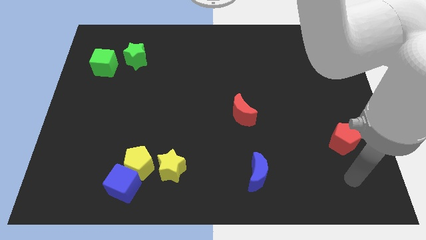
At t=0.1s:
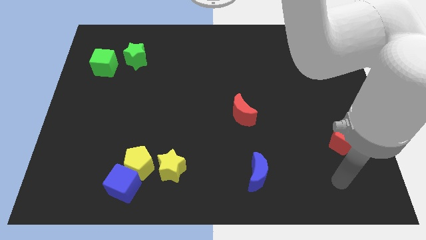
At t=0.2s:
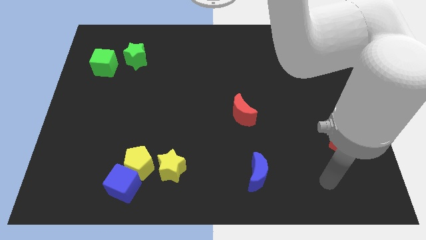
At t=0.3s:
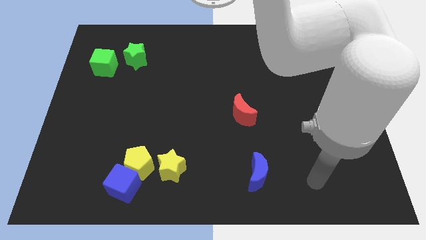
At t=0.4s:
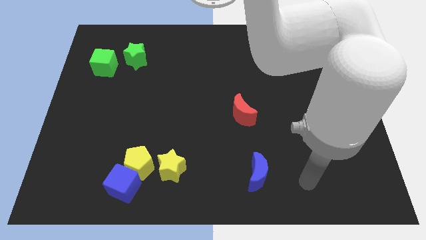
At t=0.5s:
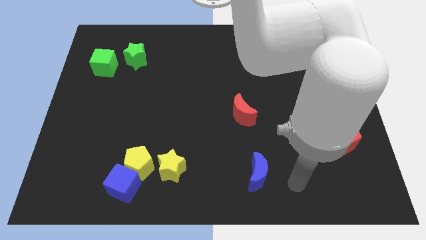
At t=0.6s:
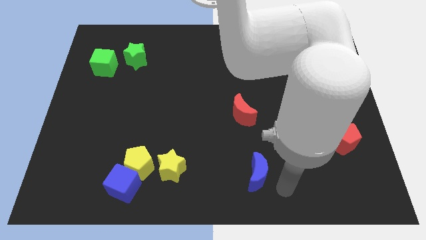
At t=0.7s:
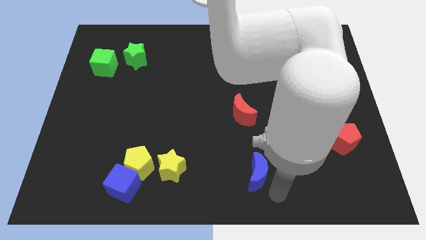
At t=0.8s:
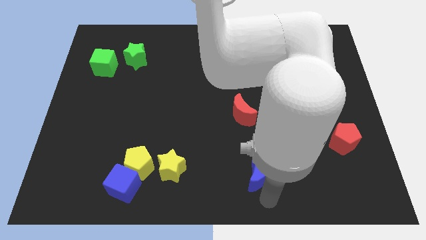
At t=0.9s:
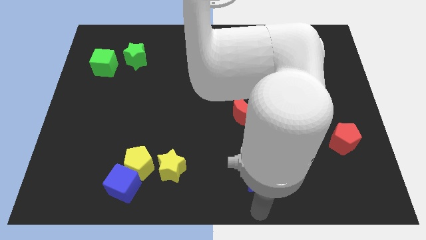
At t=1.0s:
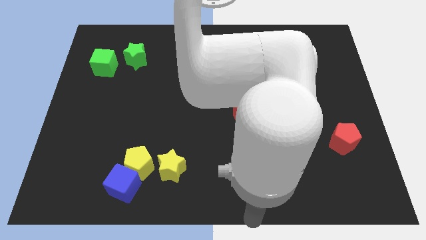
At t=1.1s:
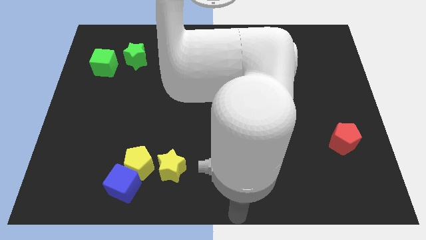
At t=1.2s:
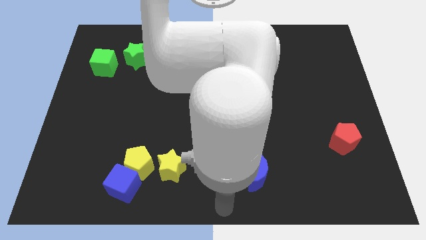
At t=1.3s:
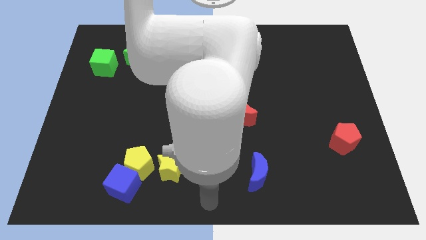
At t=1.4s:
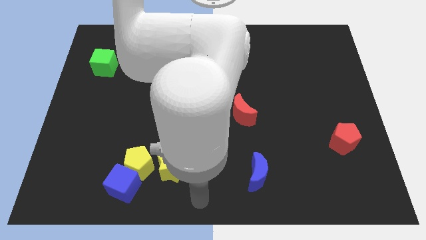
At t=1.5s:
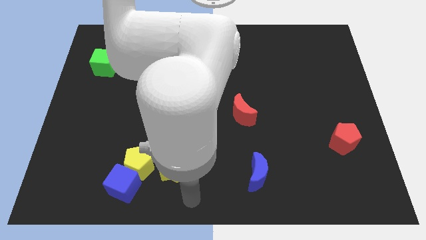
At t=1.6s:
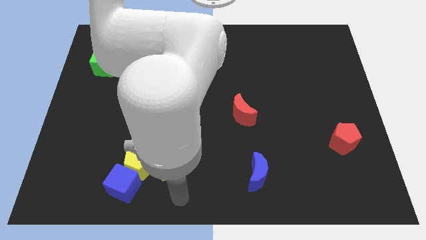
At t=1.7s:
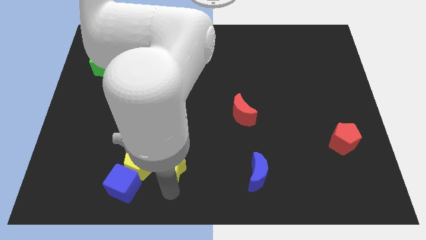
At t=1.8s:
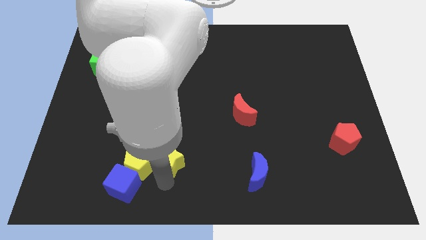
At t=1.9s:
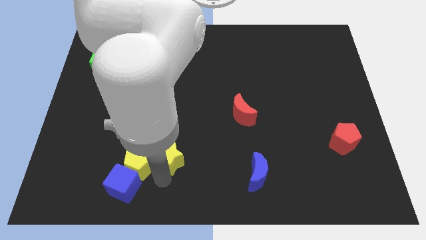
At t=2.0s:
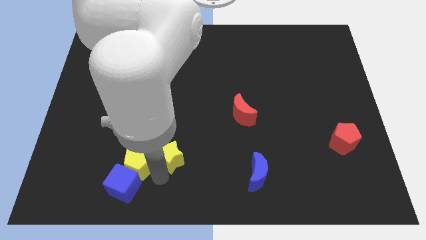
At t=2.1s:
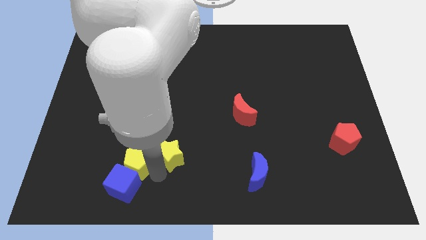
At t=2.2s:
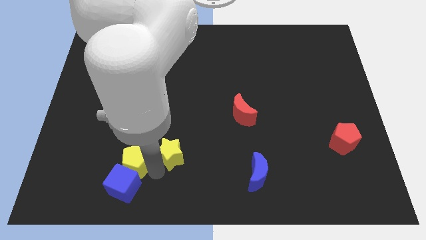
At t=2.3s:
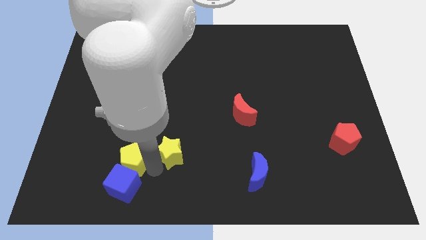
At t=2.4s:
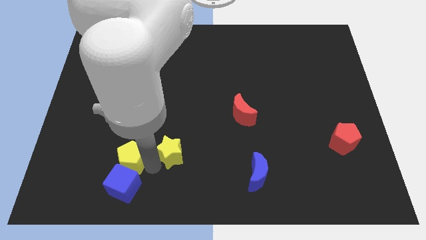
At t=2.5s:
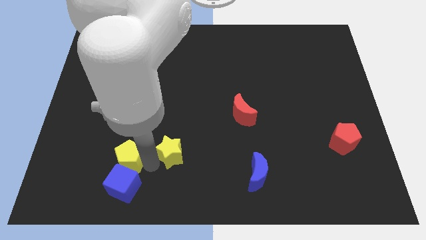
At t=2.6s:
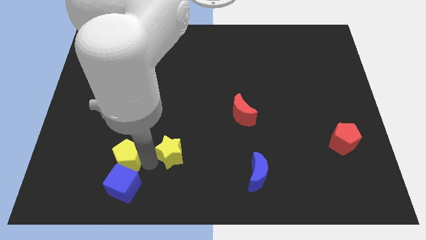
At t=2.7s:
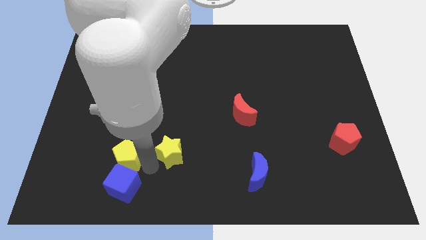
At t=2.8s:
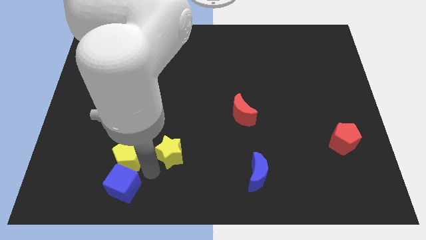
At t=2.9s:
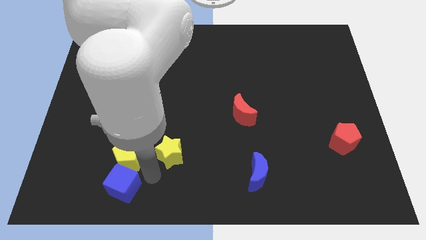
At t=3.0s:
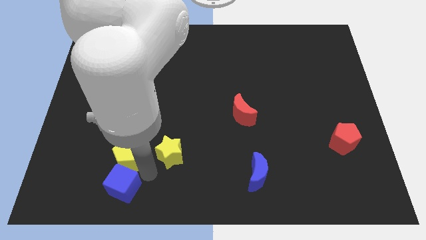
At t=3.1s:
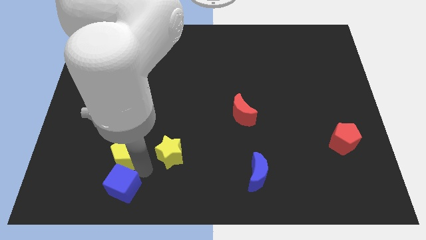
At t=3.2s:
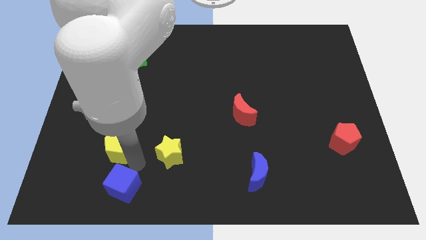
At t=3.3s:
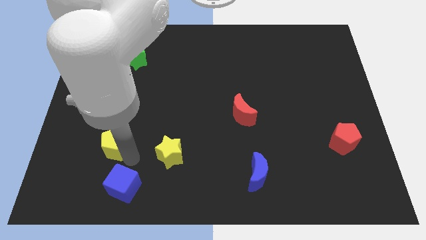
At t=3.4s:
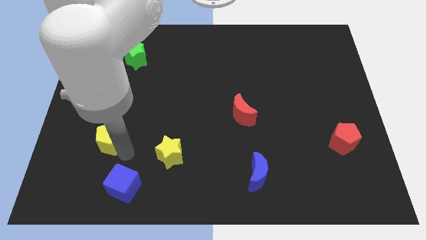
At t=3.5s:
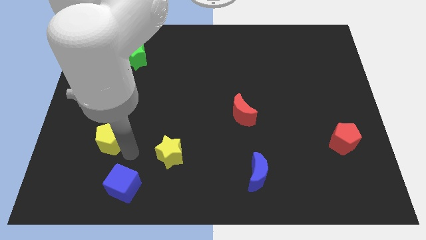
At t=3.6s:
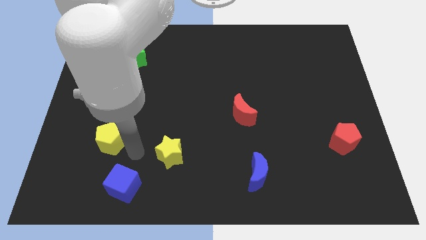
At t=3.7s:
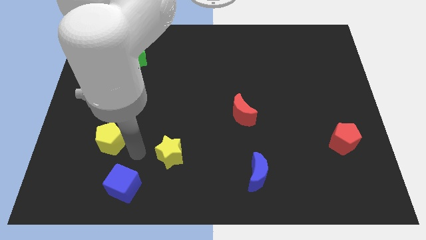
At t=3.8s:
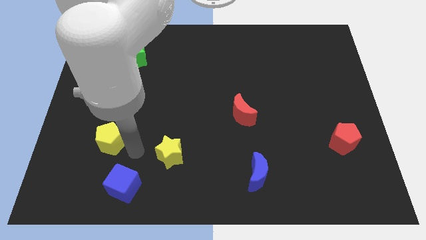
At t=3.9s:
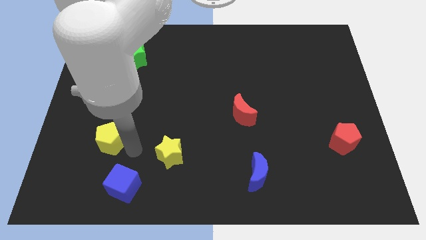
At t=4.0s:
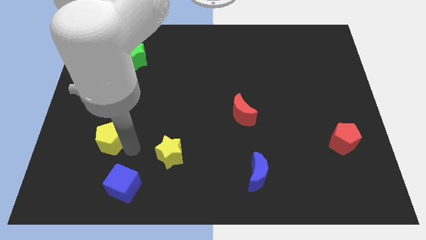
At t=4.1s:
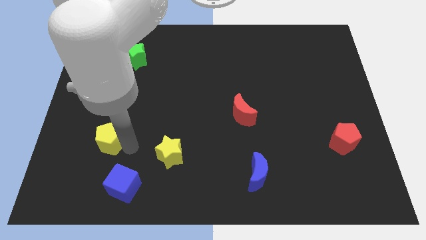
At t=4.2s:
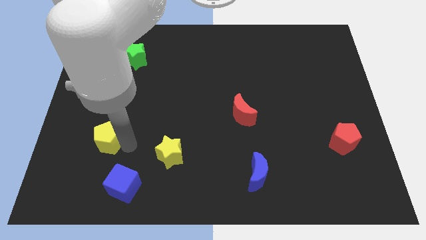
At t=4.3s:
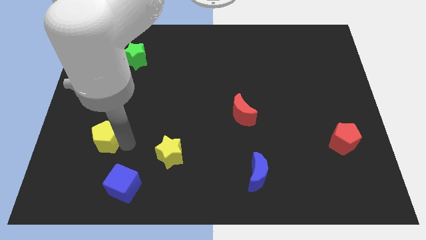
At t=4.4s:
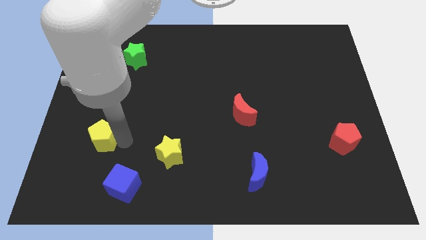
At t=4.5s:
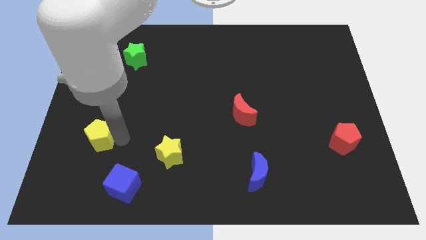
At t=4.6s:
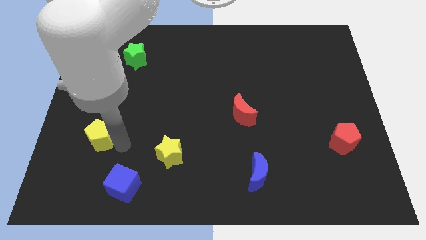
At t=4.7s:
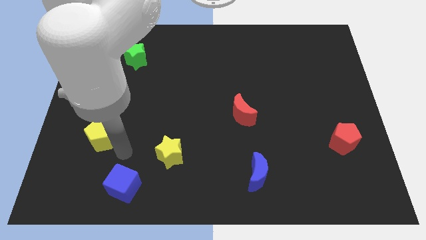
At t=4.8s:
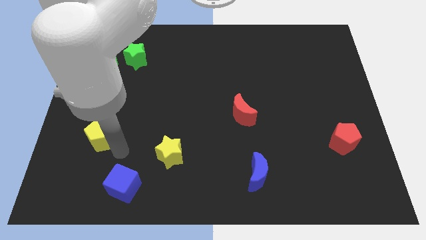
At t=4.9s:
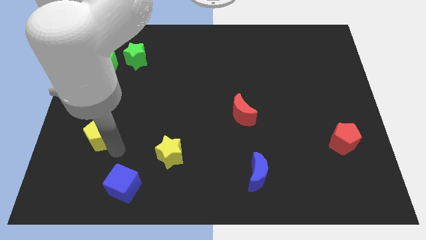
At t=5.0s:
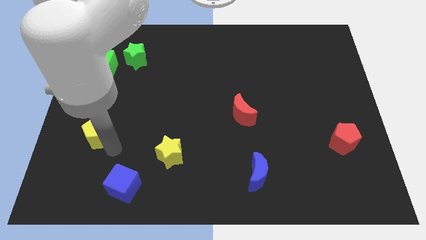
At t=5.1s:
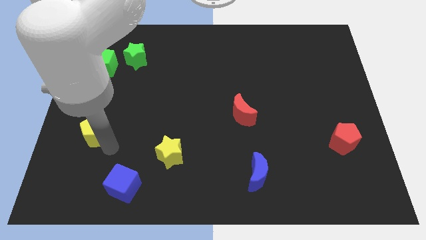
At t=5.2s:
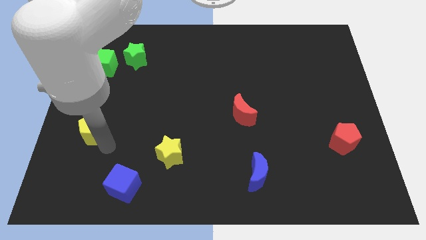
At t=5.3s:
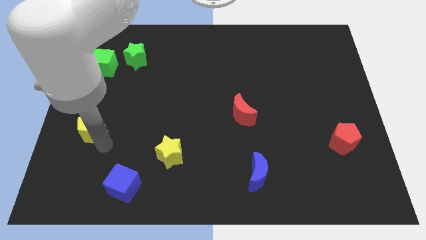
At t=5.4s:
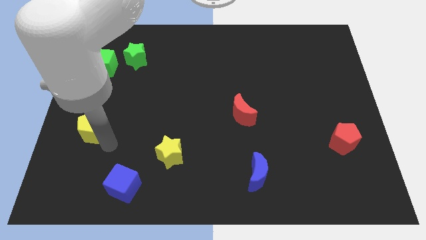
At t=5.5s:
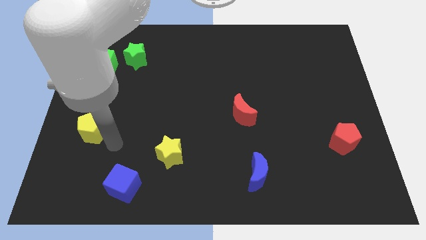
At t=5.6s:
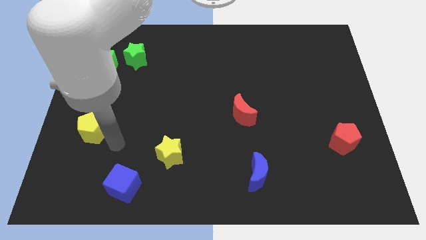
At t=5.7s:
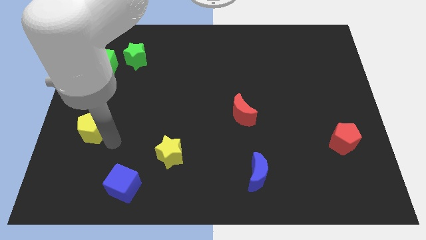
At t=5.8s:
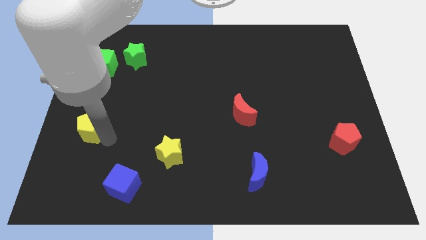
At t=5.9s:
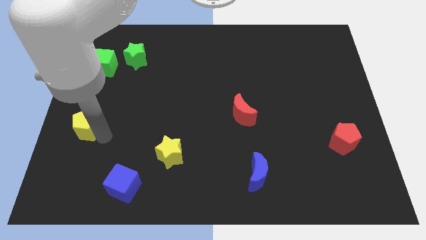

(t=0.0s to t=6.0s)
slide the yellow pentagon to the left side
